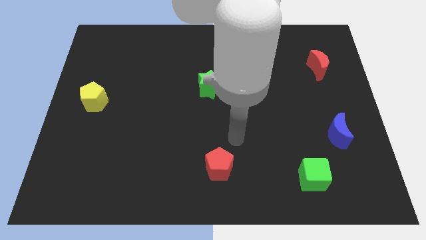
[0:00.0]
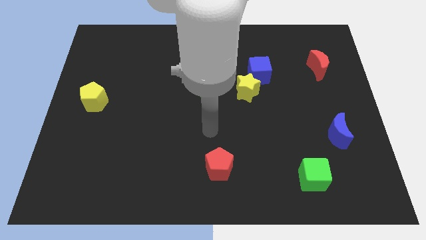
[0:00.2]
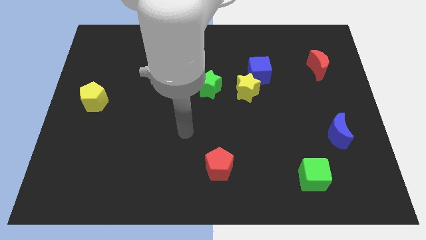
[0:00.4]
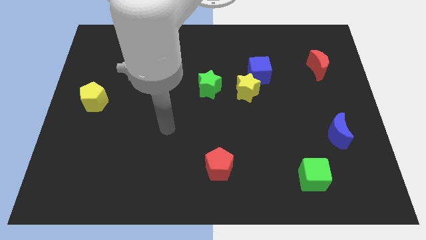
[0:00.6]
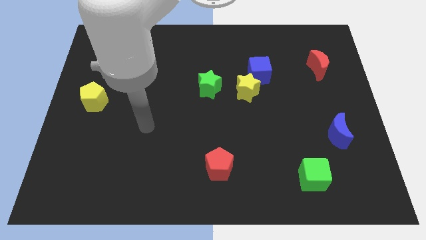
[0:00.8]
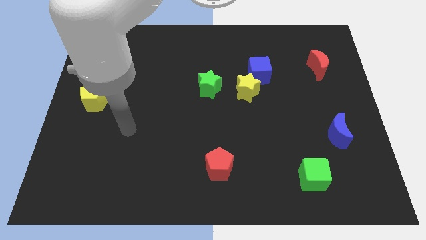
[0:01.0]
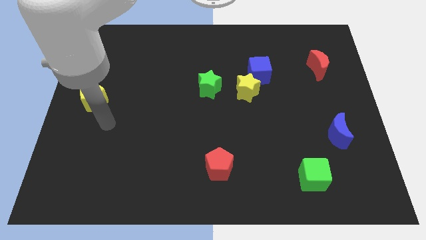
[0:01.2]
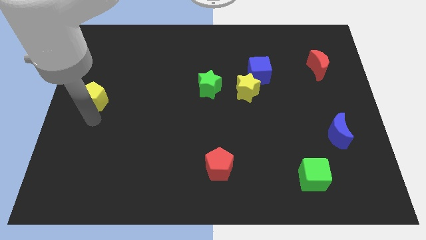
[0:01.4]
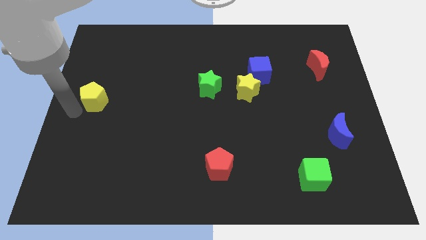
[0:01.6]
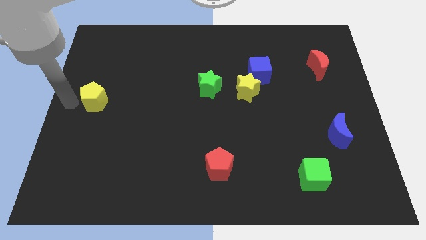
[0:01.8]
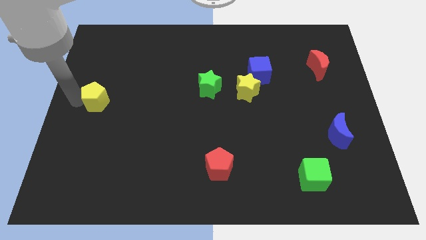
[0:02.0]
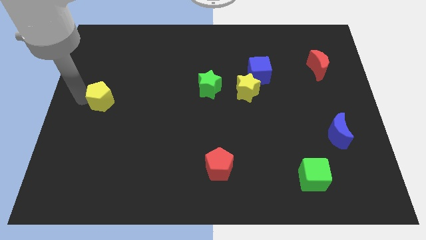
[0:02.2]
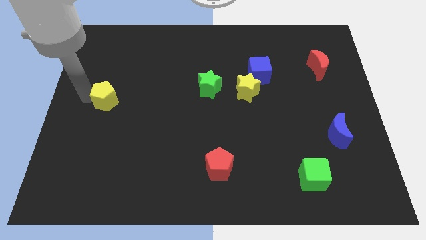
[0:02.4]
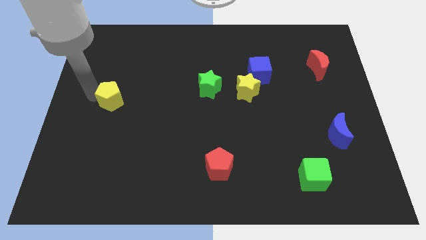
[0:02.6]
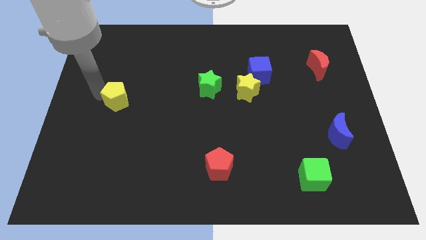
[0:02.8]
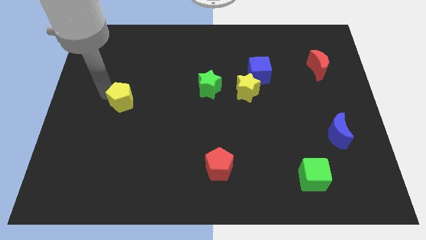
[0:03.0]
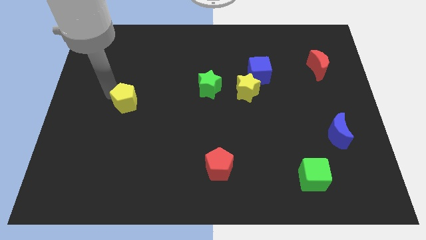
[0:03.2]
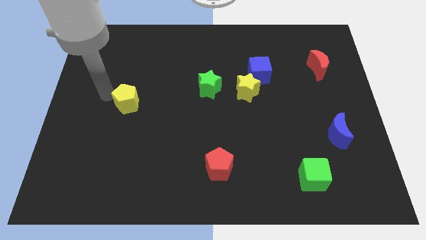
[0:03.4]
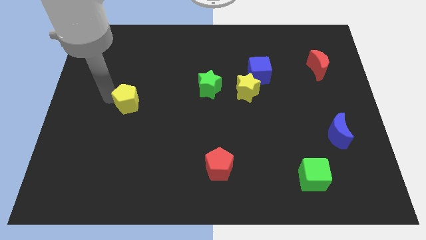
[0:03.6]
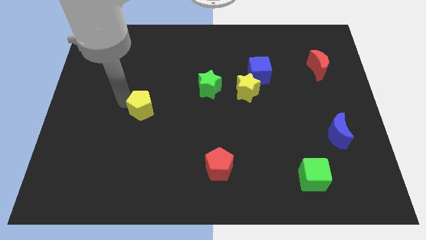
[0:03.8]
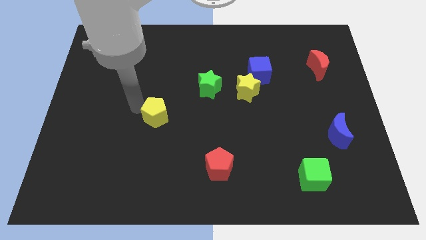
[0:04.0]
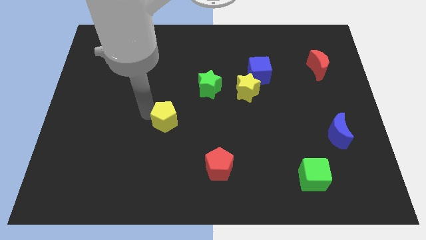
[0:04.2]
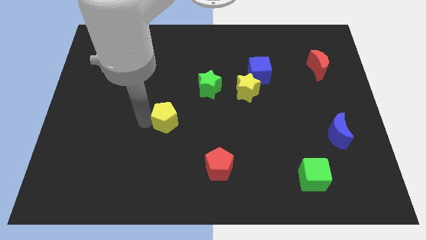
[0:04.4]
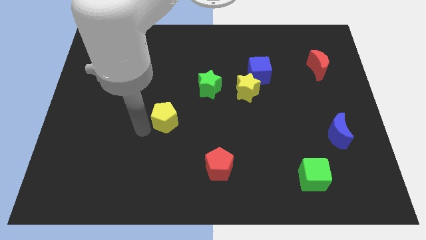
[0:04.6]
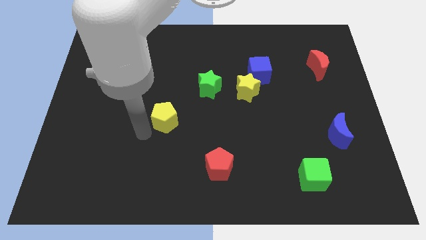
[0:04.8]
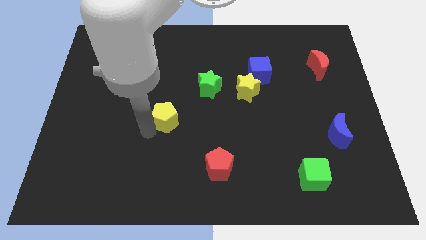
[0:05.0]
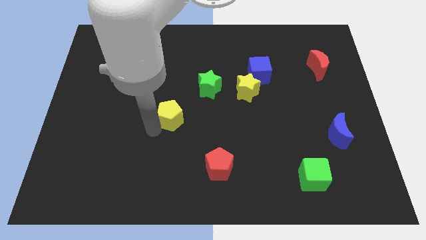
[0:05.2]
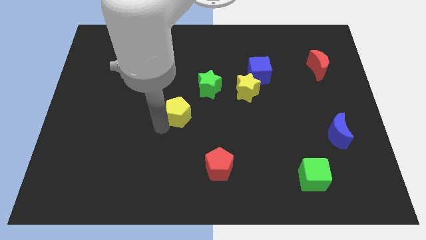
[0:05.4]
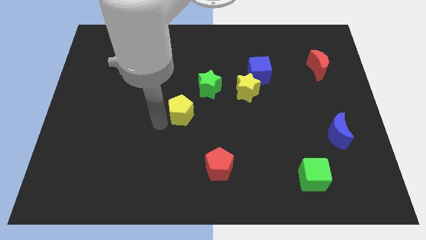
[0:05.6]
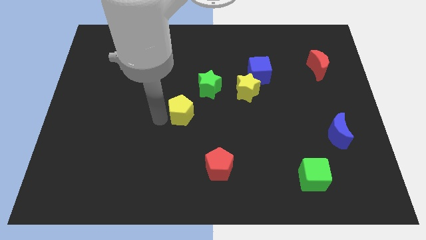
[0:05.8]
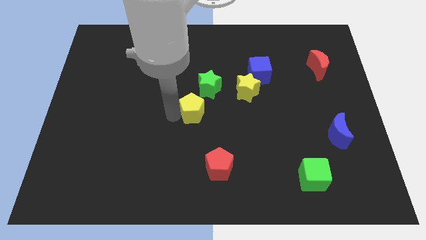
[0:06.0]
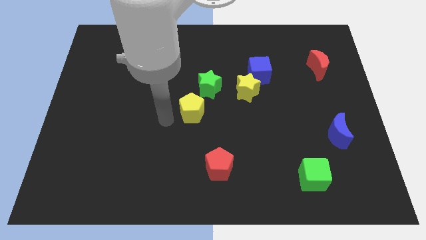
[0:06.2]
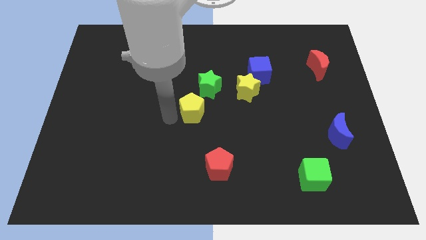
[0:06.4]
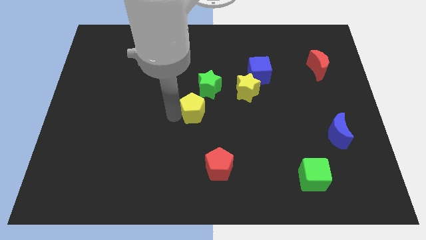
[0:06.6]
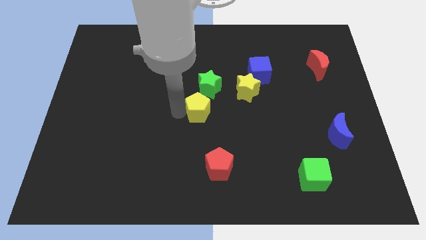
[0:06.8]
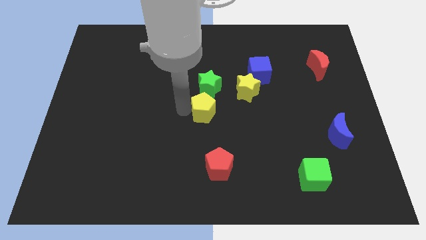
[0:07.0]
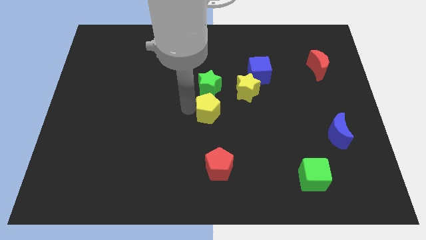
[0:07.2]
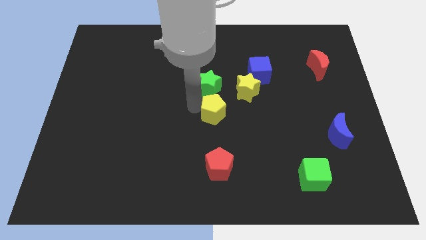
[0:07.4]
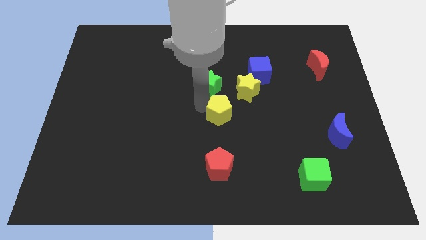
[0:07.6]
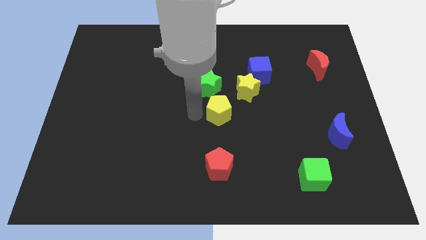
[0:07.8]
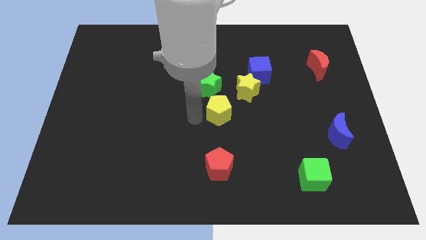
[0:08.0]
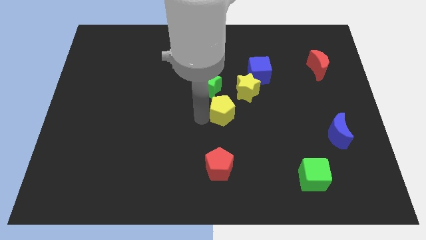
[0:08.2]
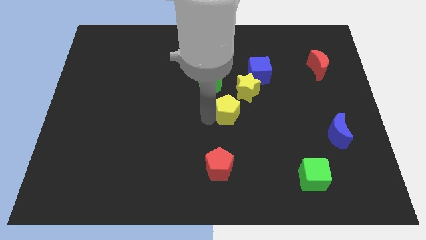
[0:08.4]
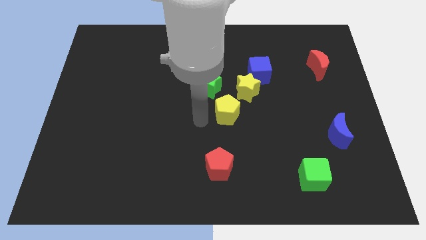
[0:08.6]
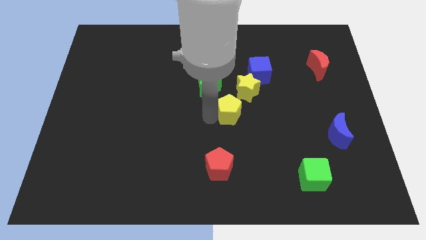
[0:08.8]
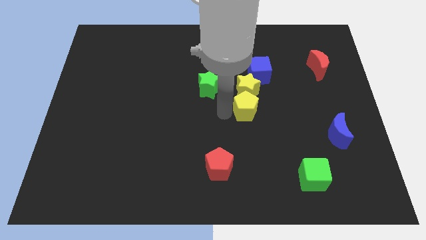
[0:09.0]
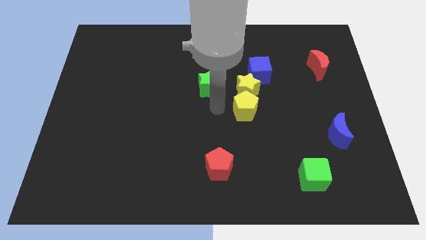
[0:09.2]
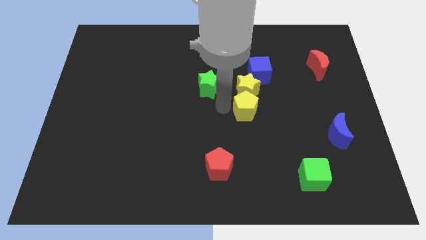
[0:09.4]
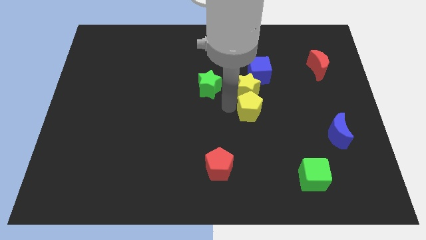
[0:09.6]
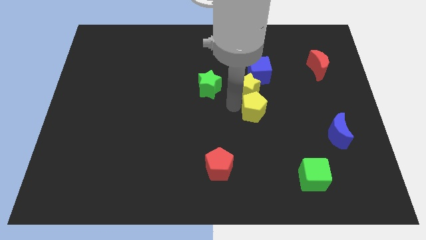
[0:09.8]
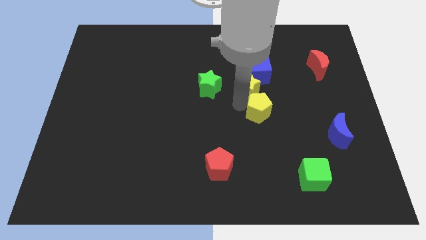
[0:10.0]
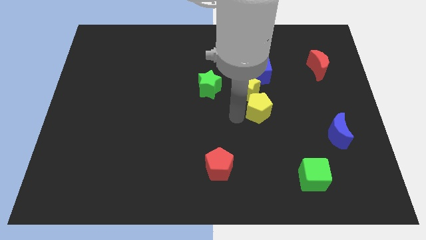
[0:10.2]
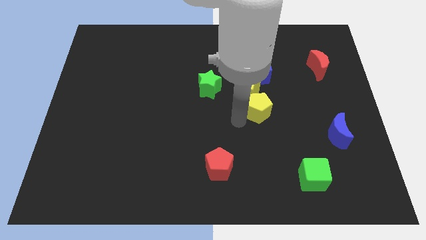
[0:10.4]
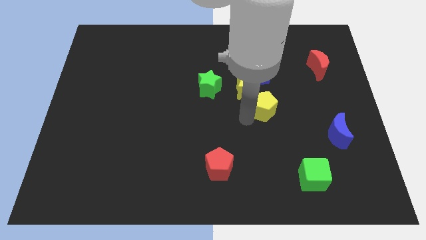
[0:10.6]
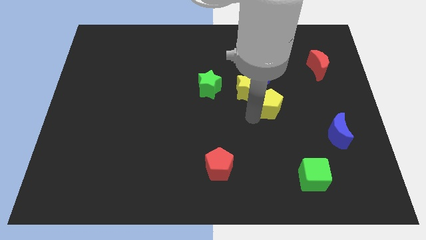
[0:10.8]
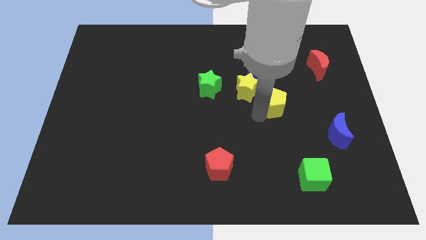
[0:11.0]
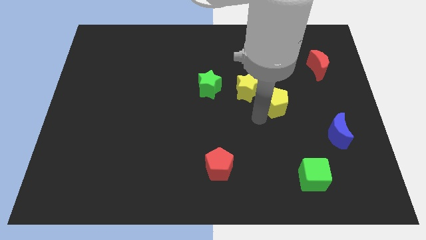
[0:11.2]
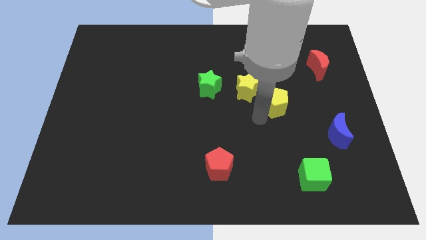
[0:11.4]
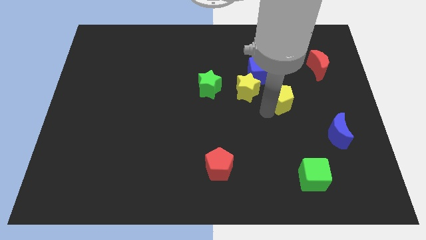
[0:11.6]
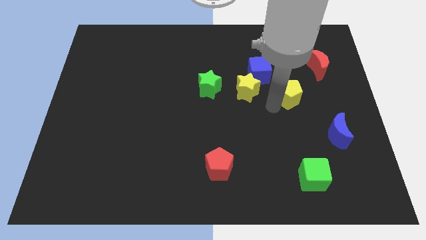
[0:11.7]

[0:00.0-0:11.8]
put the yellow pentagon diagonally down and to the left of the red moon

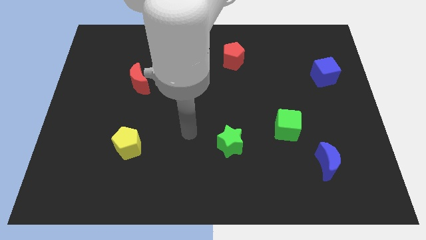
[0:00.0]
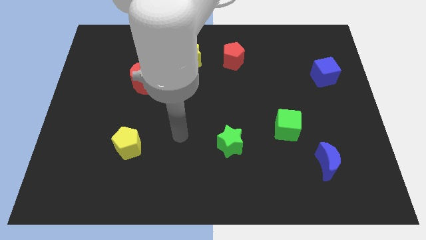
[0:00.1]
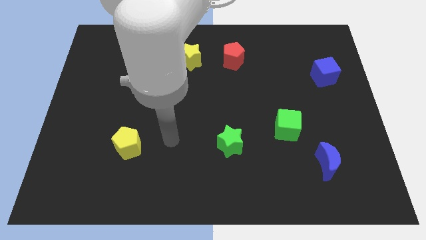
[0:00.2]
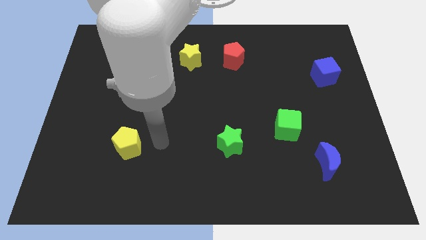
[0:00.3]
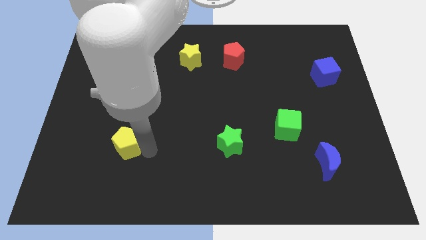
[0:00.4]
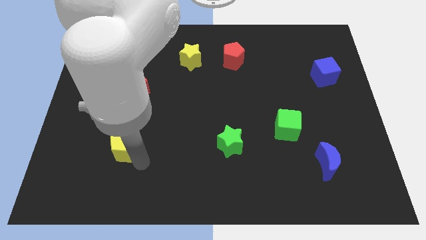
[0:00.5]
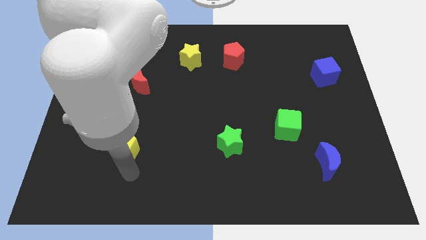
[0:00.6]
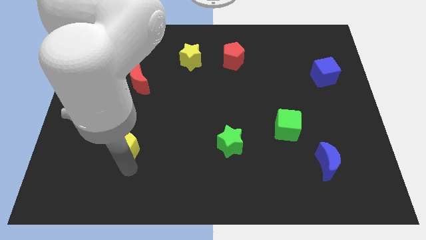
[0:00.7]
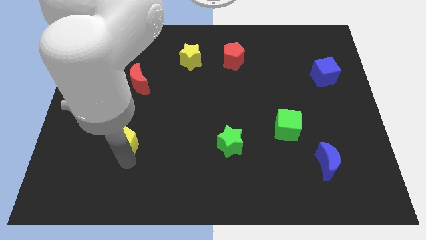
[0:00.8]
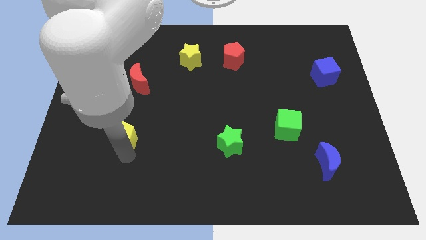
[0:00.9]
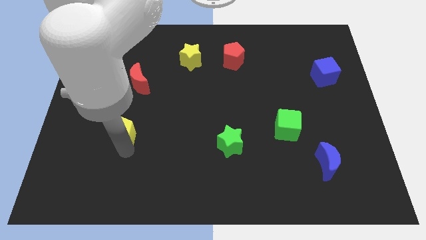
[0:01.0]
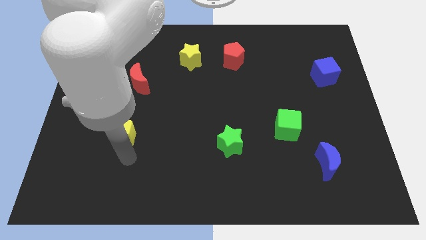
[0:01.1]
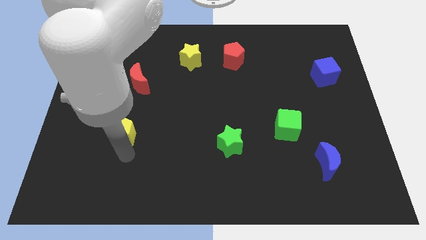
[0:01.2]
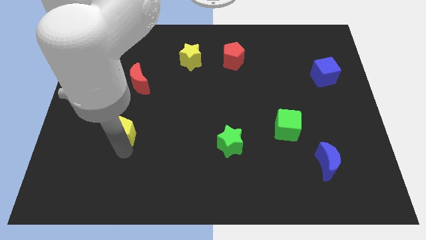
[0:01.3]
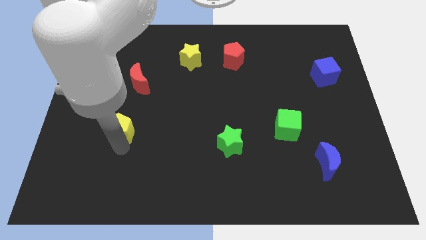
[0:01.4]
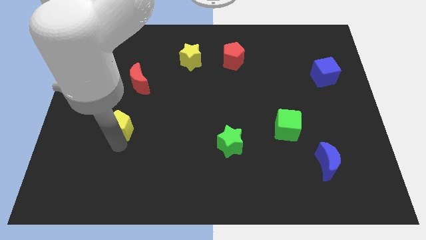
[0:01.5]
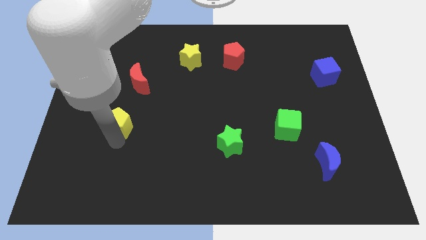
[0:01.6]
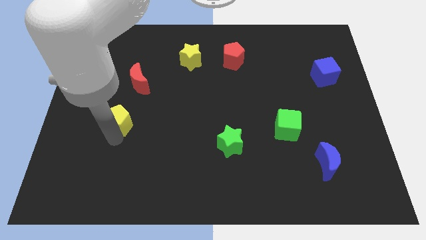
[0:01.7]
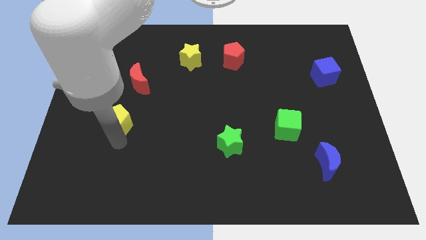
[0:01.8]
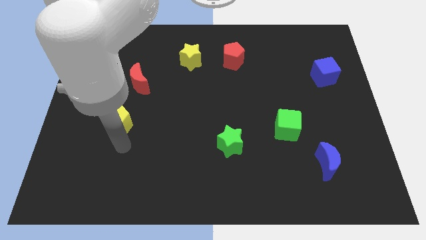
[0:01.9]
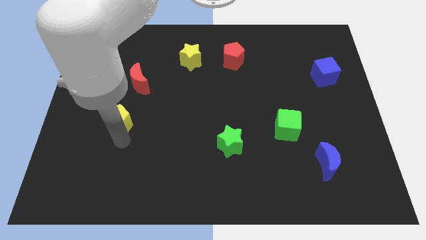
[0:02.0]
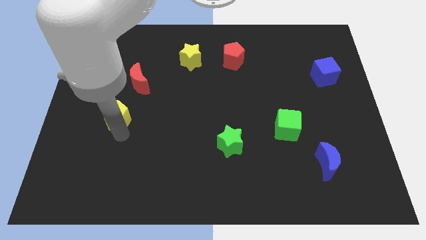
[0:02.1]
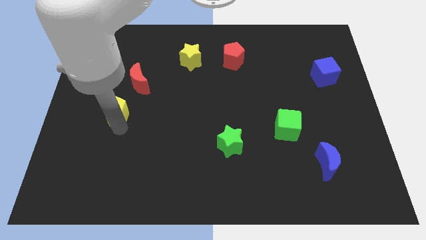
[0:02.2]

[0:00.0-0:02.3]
slide the yellow pentagon to the bottom left side of the red moon
